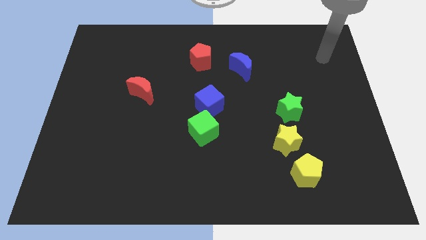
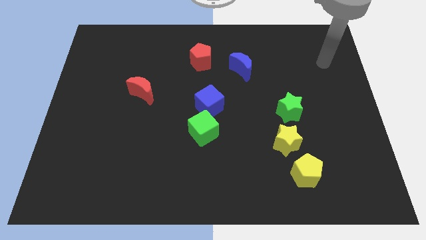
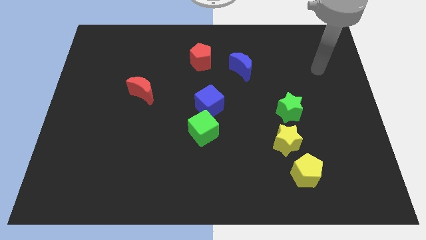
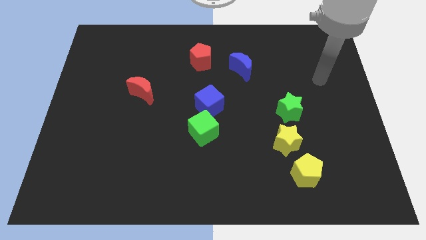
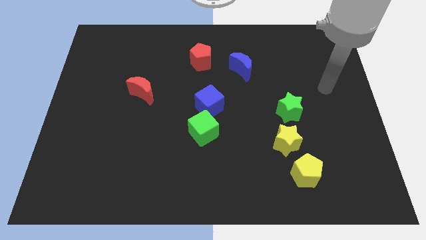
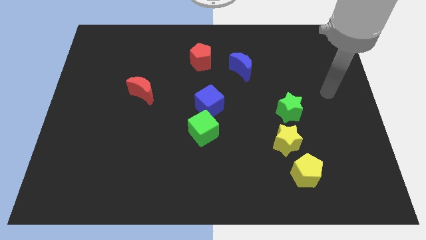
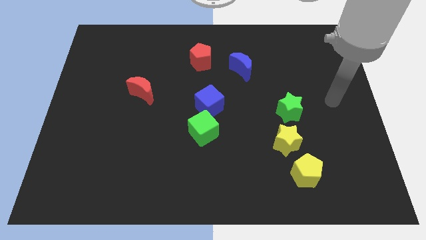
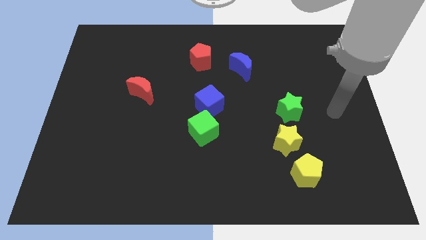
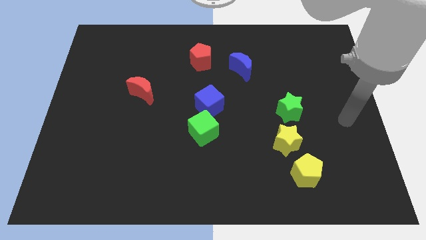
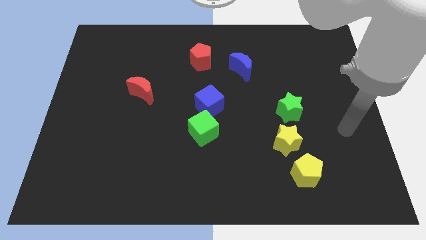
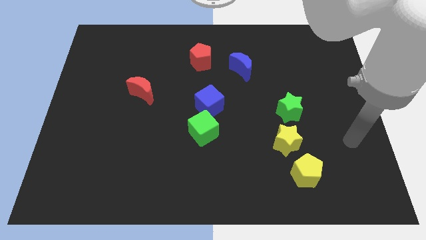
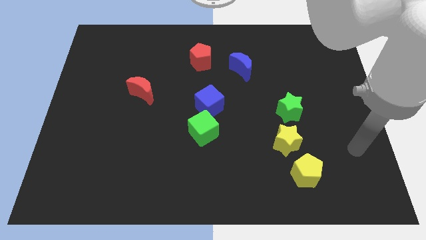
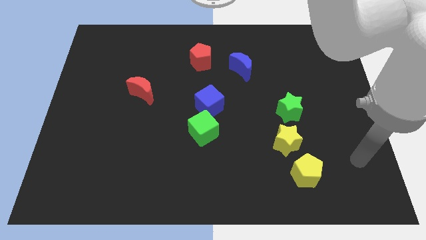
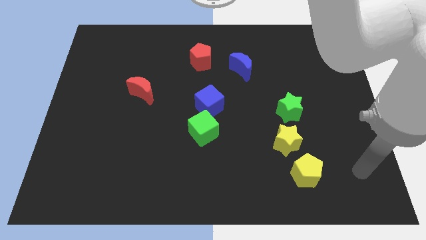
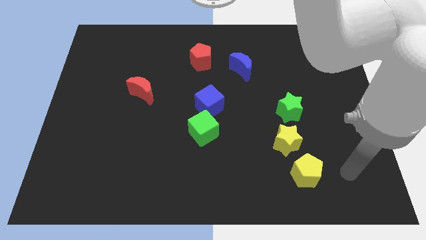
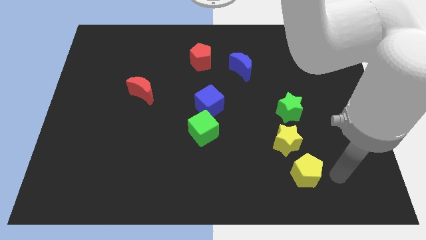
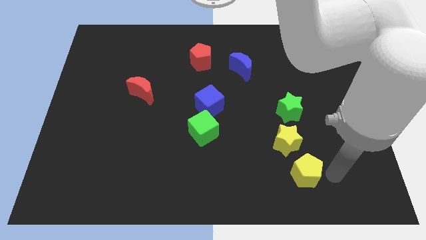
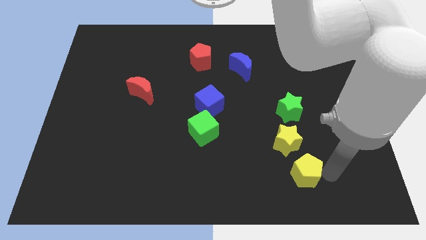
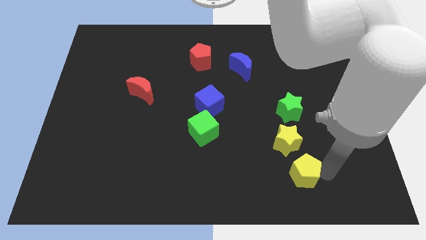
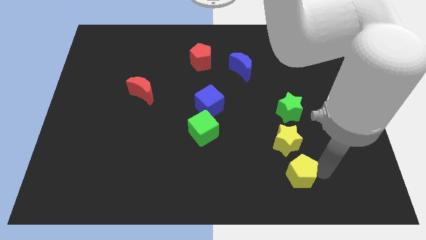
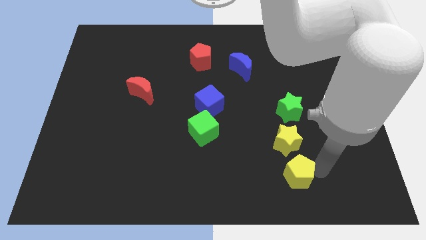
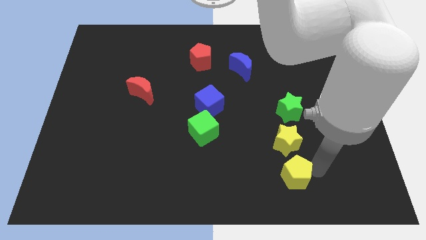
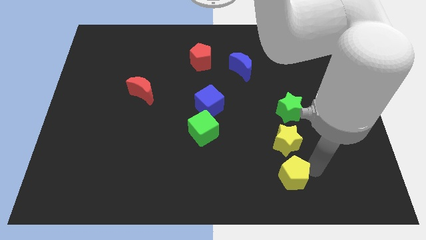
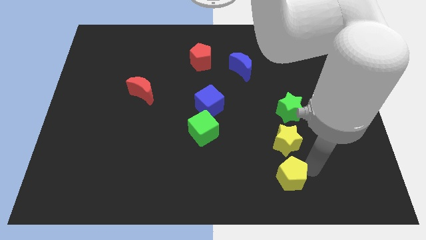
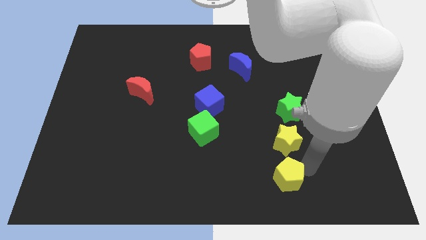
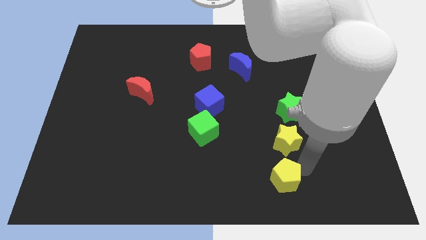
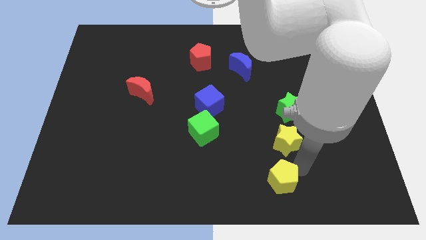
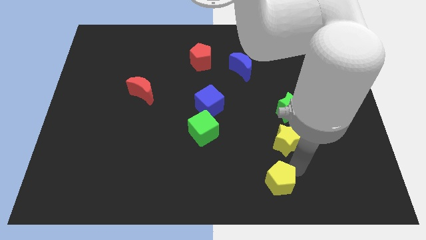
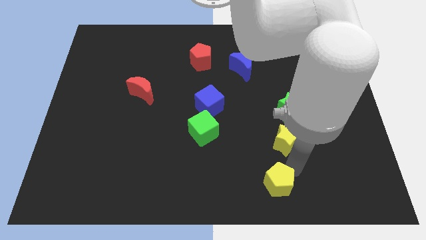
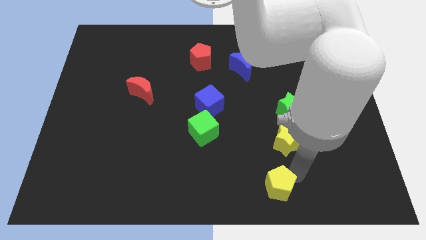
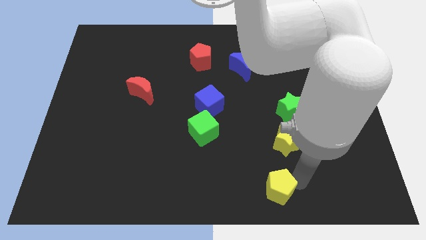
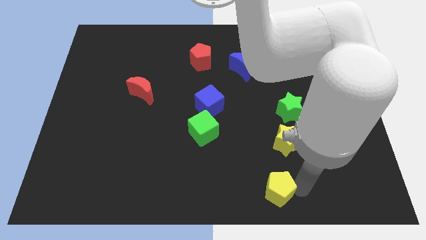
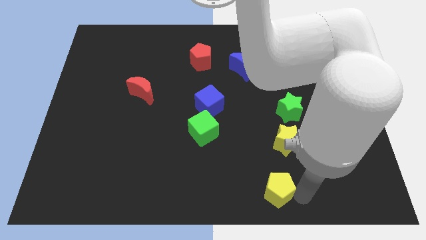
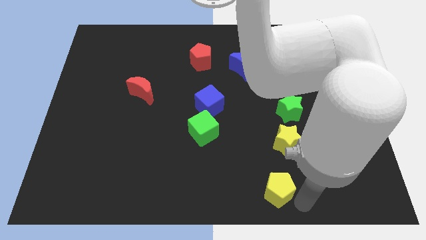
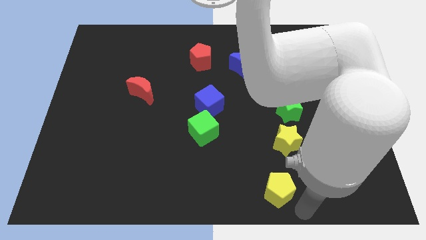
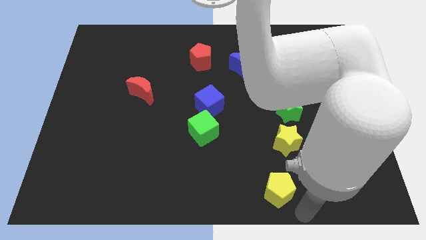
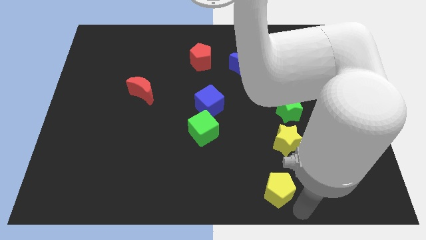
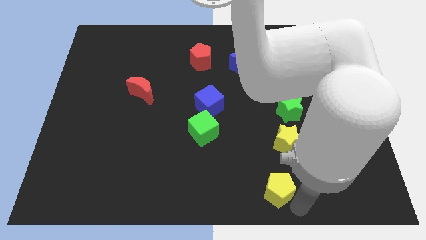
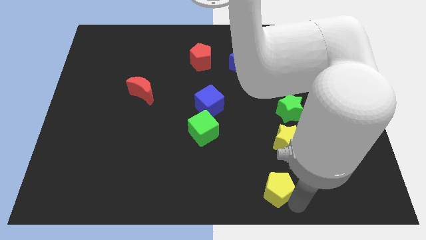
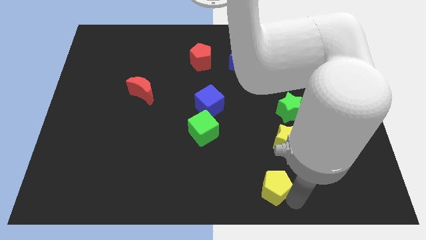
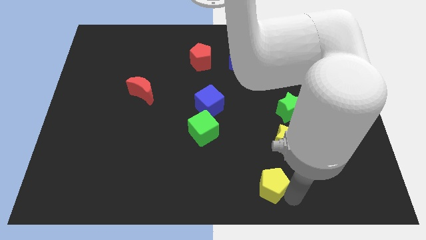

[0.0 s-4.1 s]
slide the yellow pentagon left a bit

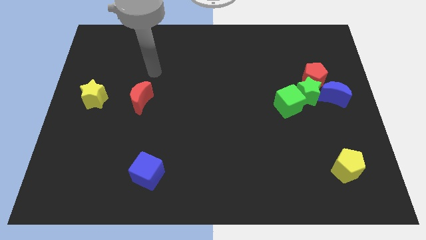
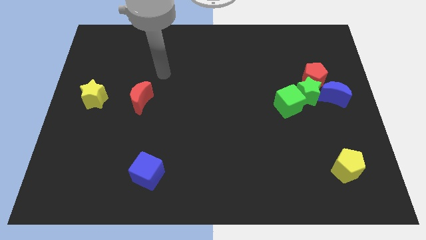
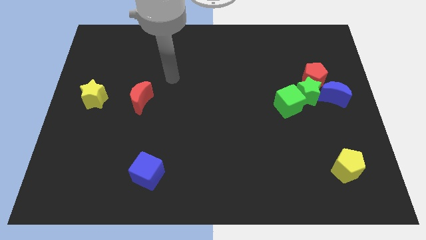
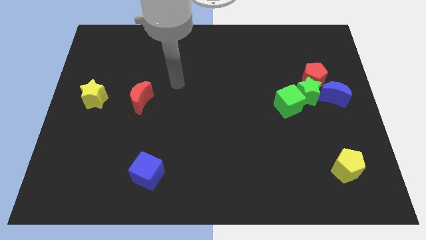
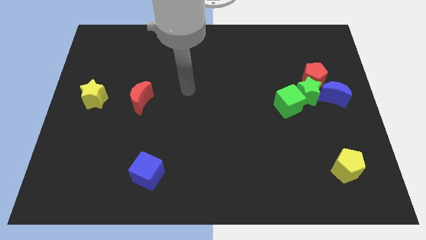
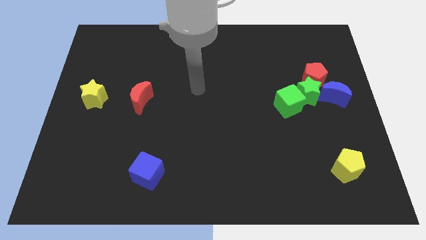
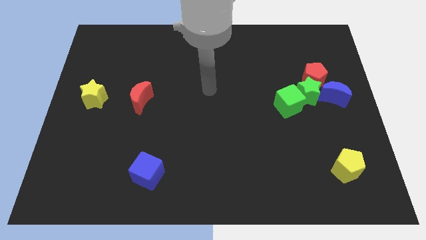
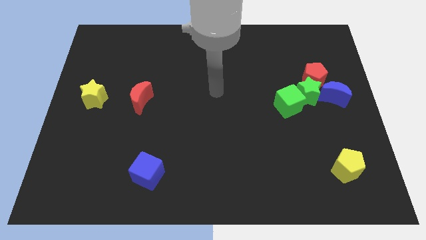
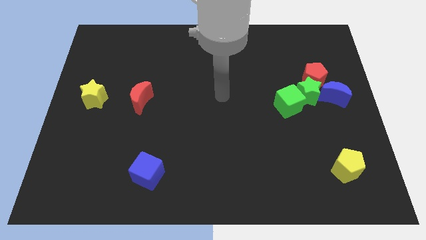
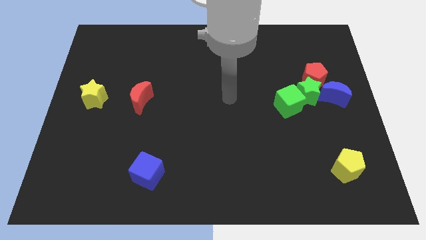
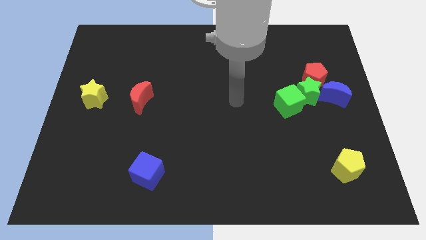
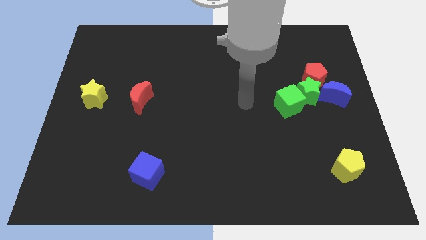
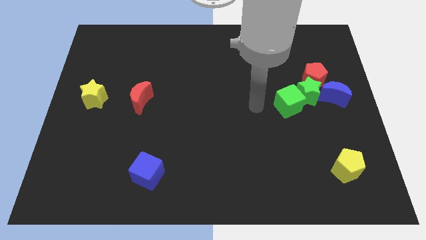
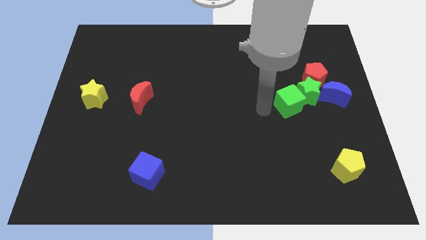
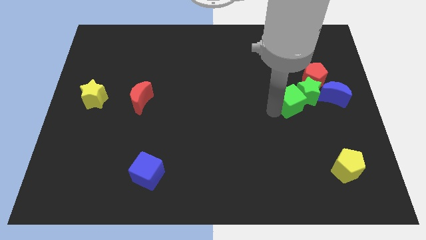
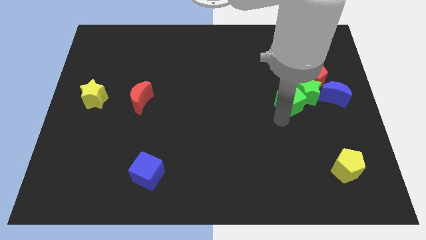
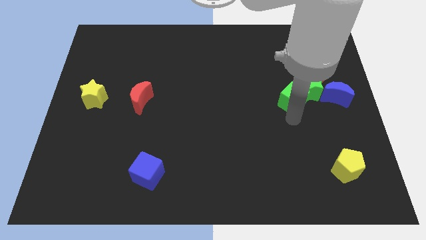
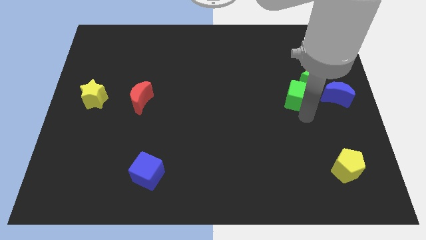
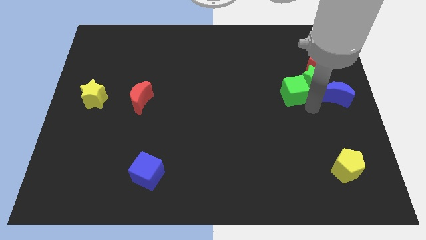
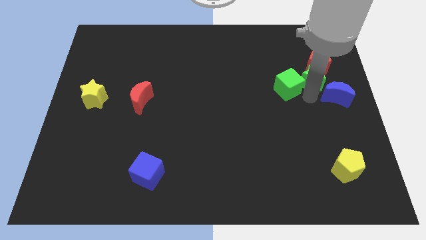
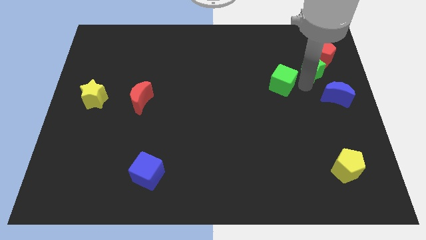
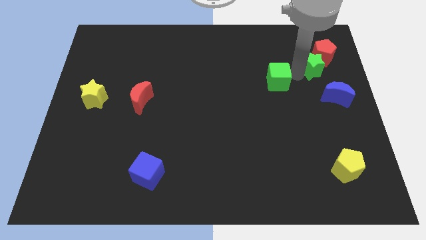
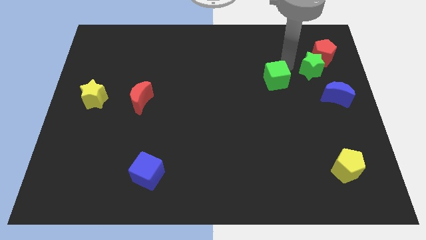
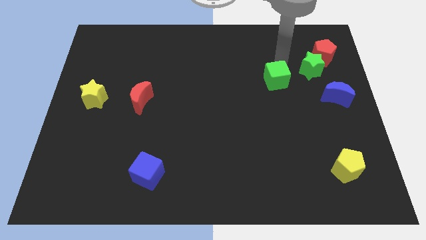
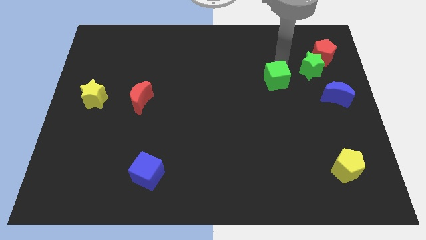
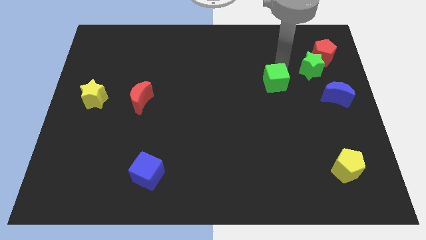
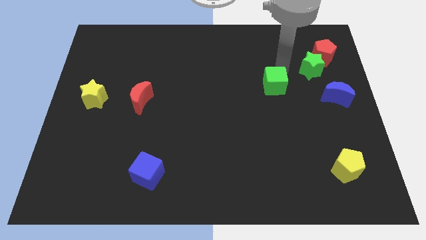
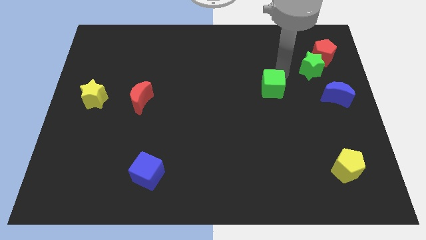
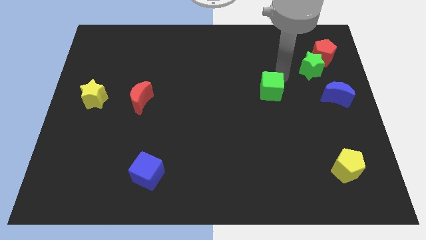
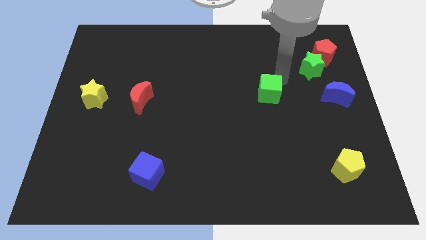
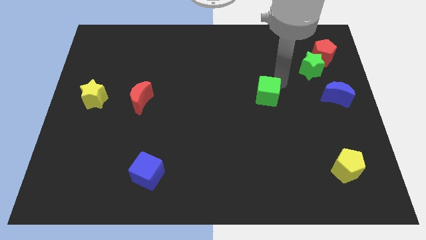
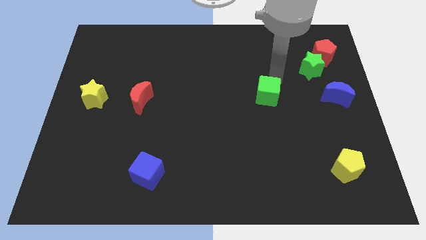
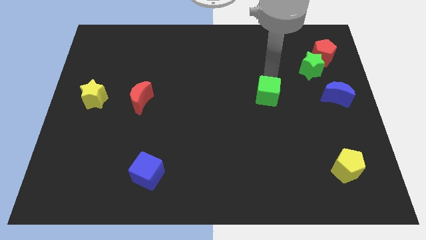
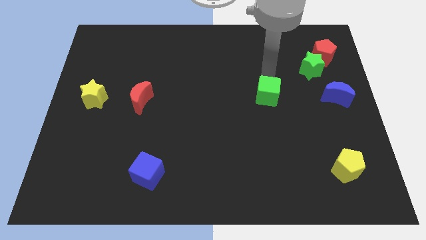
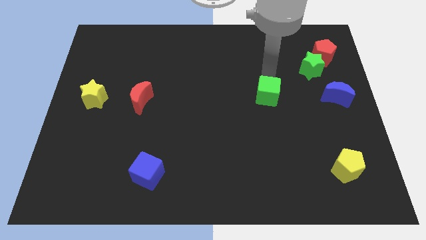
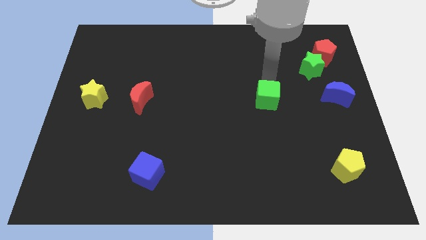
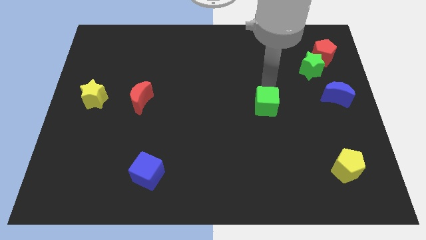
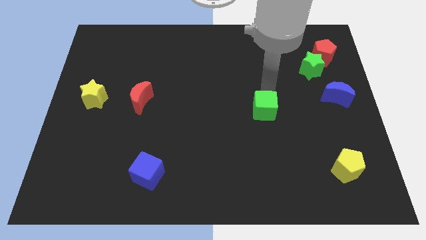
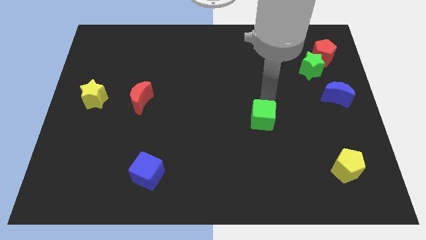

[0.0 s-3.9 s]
move the green cube a bit down and left
